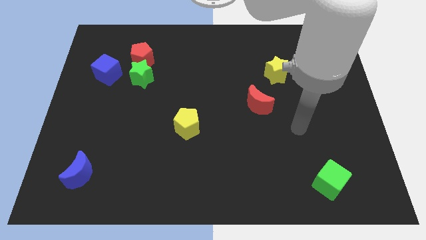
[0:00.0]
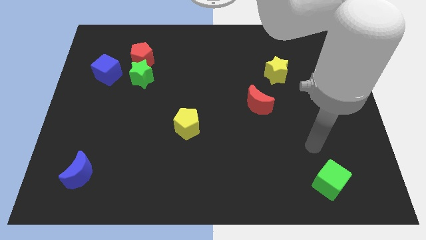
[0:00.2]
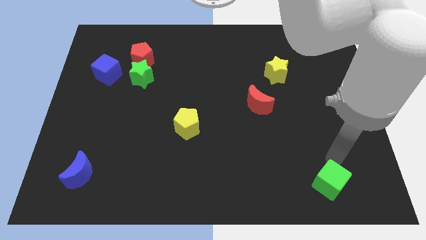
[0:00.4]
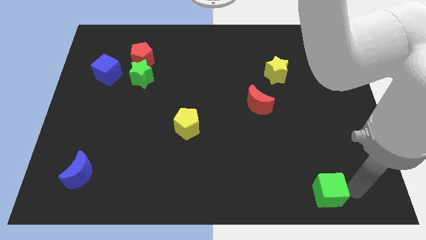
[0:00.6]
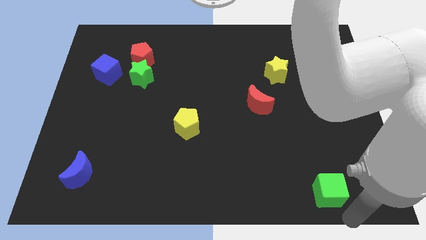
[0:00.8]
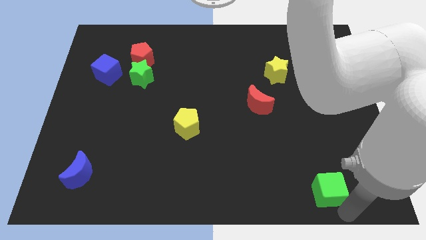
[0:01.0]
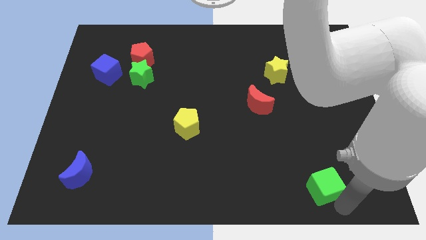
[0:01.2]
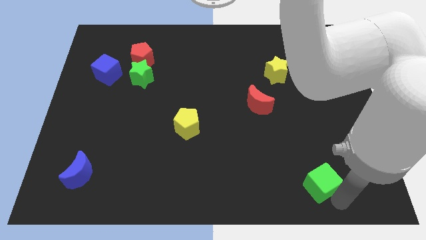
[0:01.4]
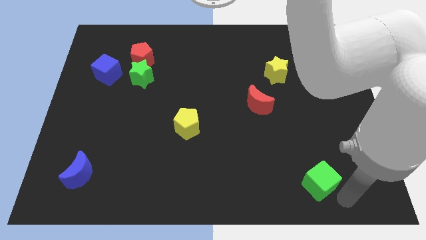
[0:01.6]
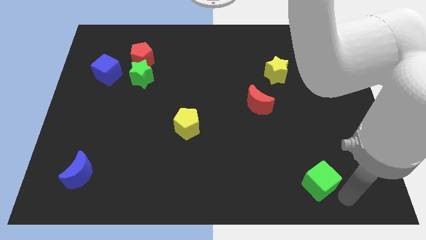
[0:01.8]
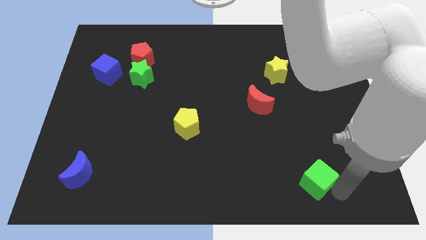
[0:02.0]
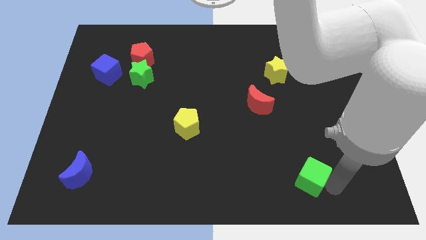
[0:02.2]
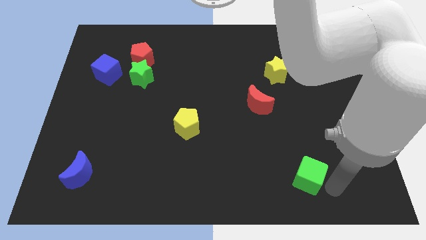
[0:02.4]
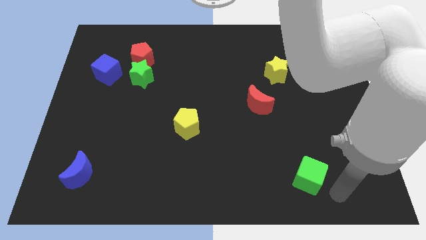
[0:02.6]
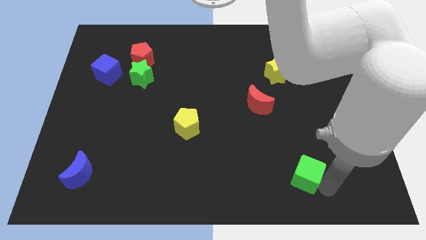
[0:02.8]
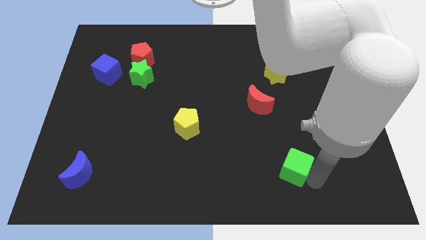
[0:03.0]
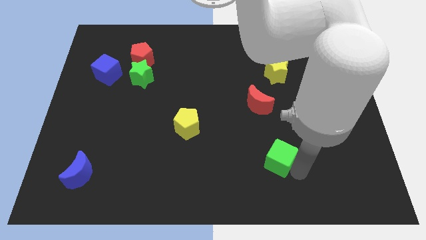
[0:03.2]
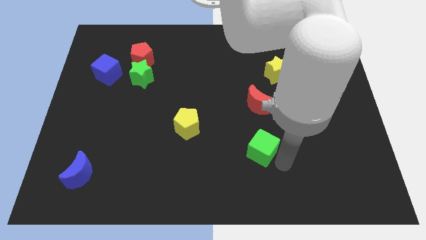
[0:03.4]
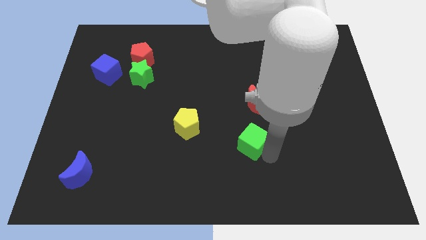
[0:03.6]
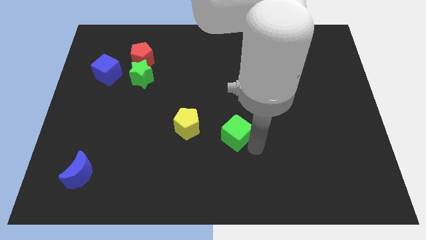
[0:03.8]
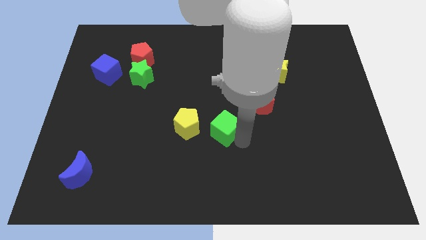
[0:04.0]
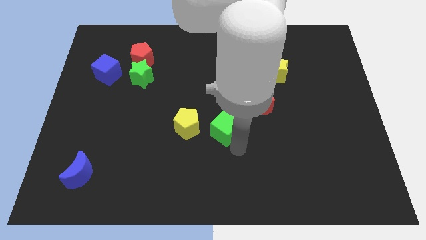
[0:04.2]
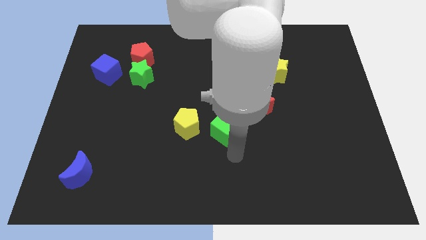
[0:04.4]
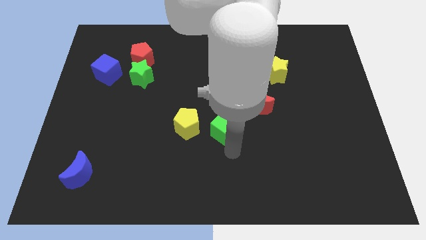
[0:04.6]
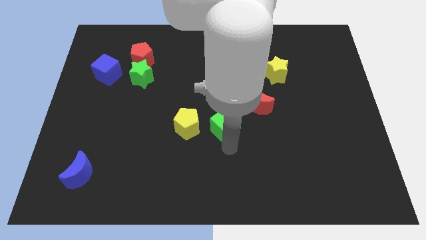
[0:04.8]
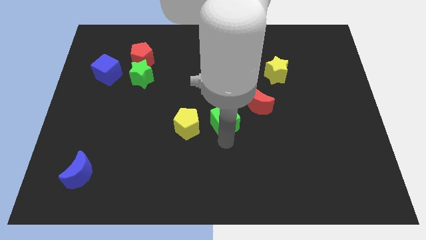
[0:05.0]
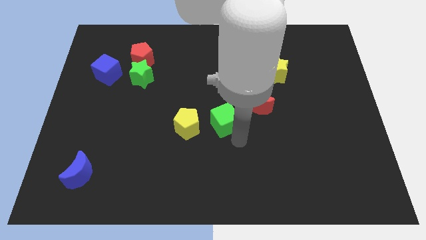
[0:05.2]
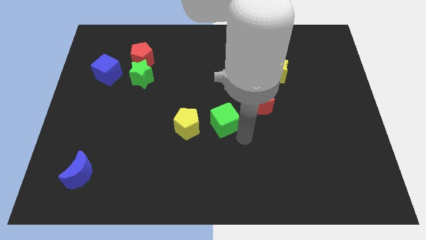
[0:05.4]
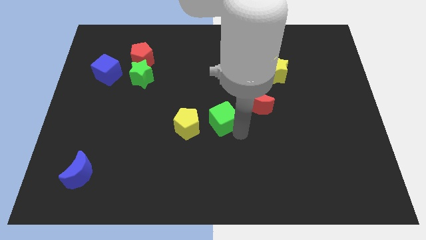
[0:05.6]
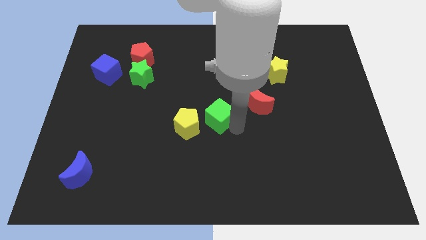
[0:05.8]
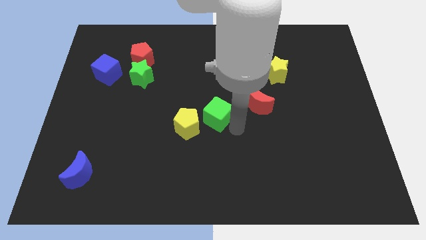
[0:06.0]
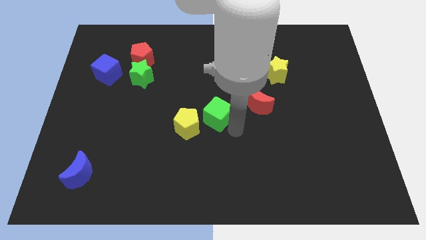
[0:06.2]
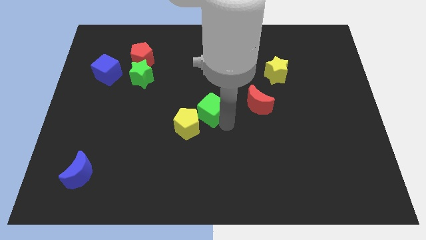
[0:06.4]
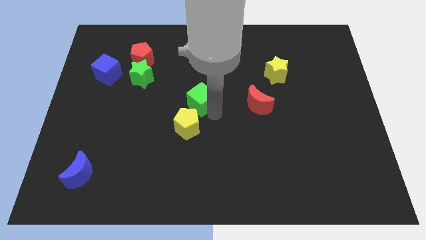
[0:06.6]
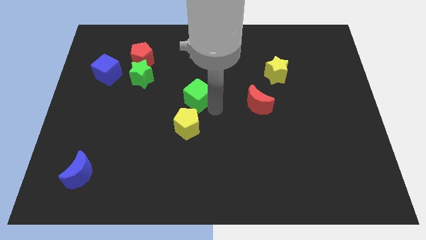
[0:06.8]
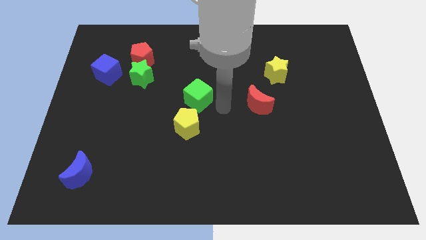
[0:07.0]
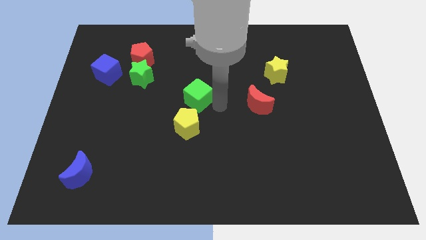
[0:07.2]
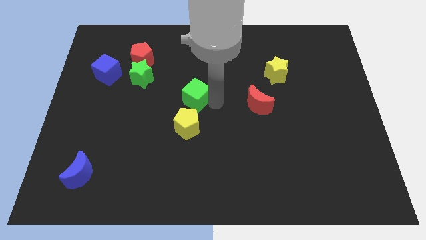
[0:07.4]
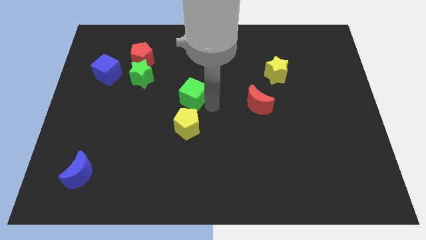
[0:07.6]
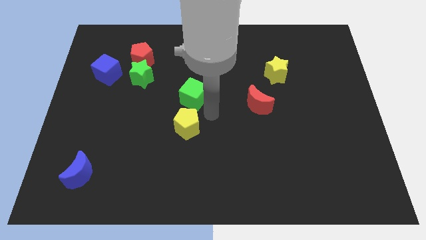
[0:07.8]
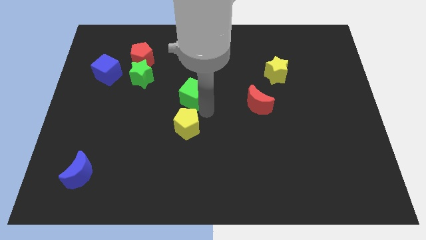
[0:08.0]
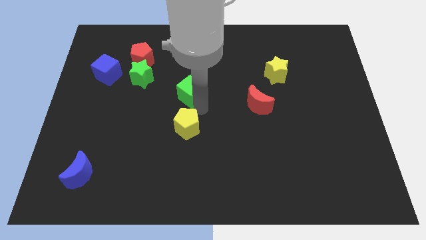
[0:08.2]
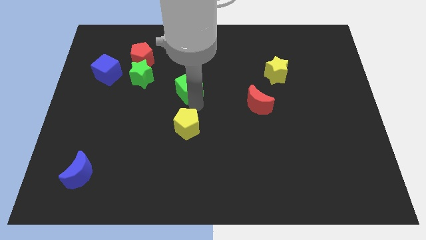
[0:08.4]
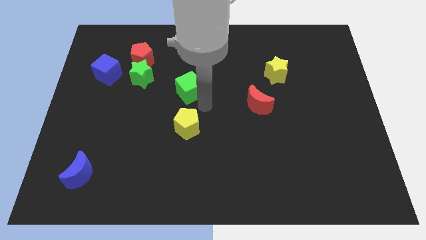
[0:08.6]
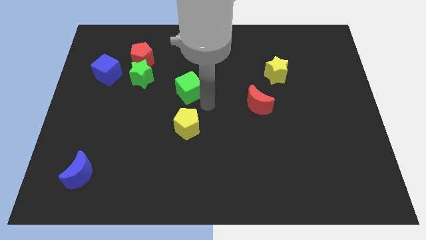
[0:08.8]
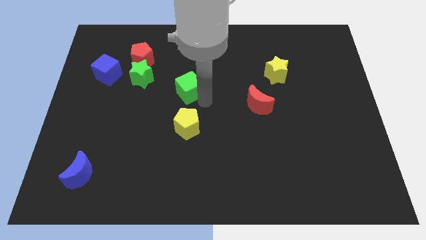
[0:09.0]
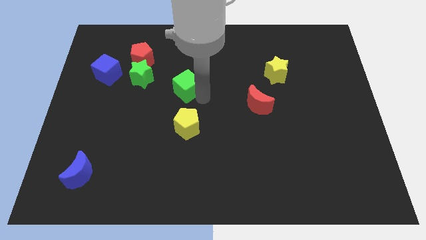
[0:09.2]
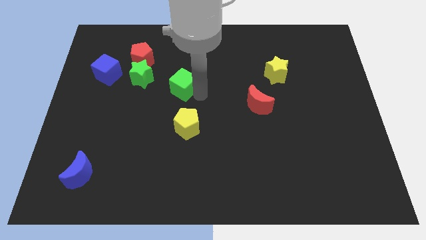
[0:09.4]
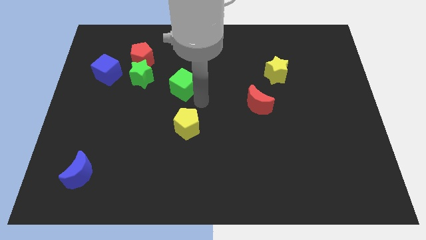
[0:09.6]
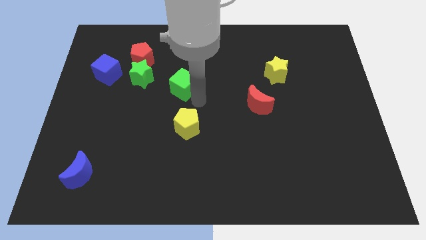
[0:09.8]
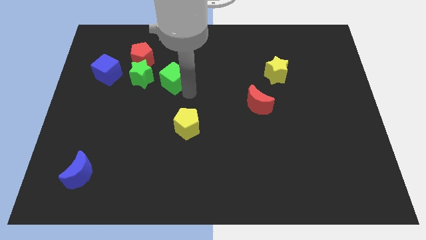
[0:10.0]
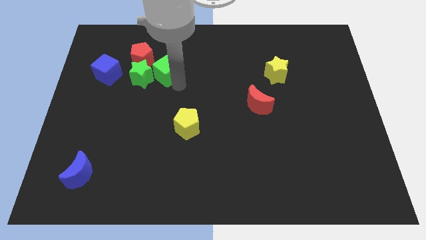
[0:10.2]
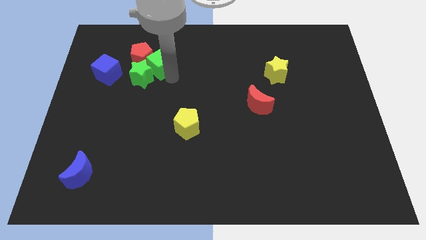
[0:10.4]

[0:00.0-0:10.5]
push the green cube next to the red pentagon

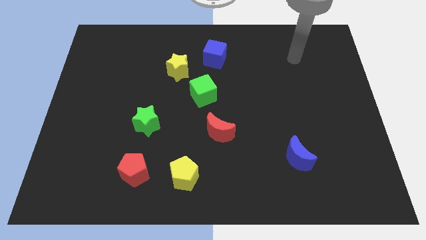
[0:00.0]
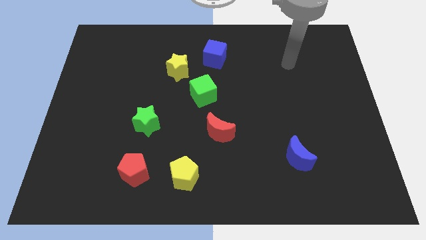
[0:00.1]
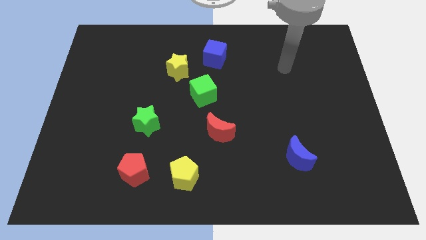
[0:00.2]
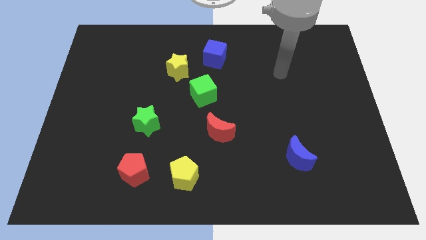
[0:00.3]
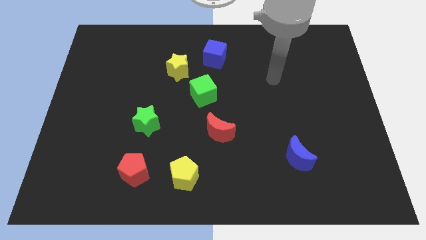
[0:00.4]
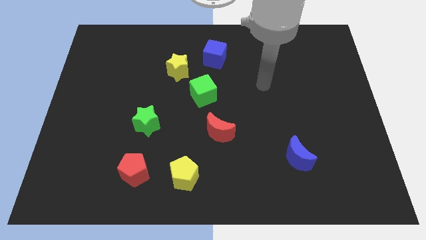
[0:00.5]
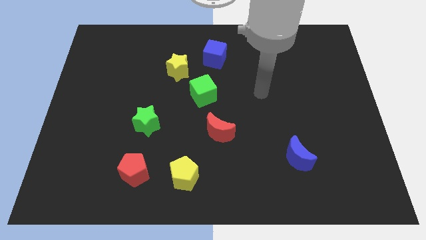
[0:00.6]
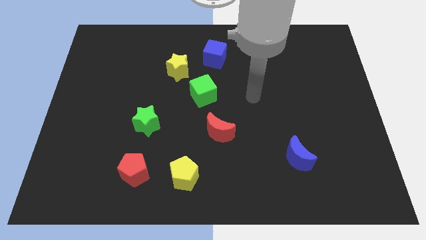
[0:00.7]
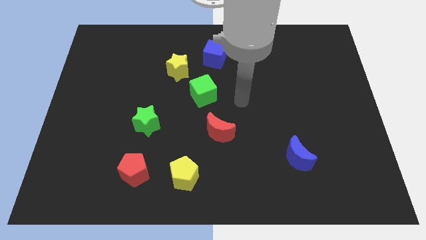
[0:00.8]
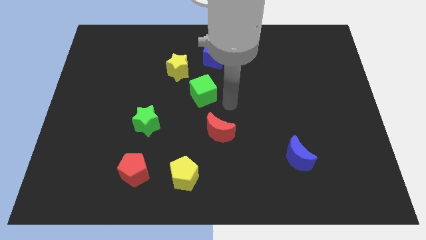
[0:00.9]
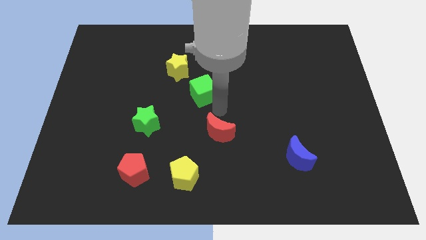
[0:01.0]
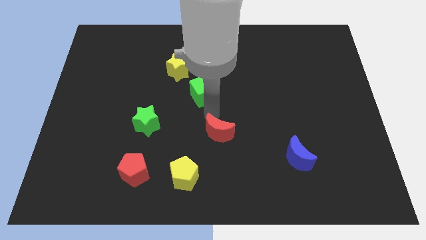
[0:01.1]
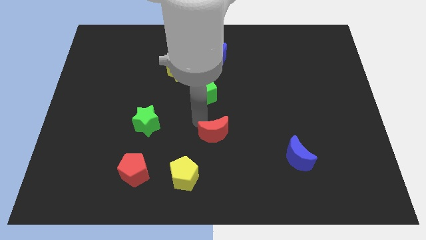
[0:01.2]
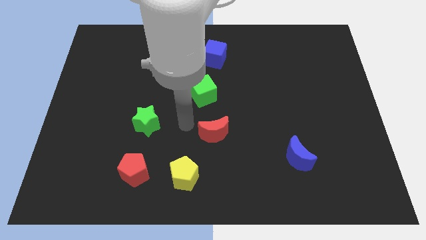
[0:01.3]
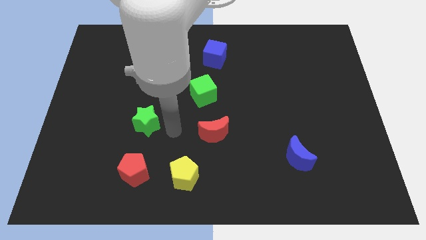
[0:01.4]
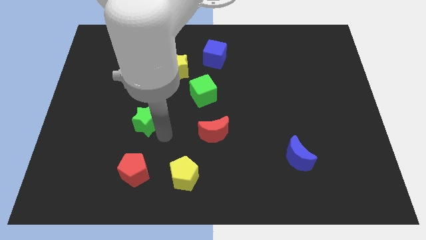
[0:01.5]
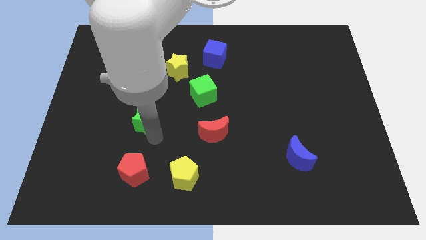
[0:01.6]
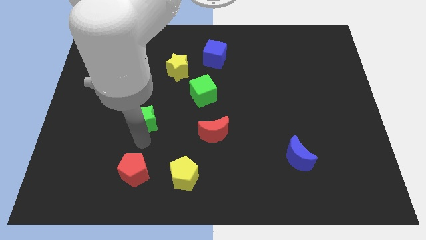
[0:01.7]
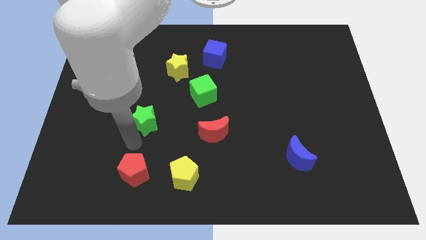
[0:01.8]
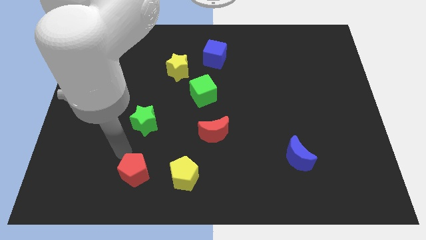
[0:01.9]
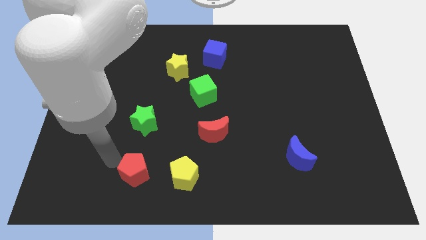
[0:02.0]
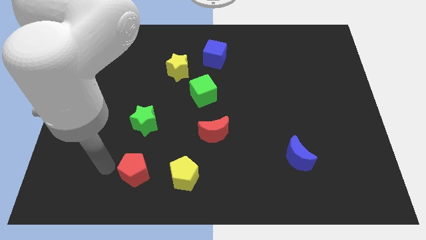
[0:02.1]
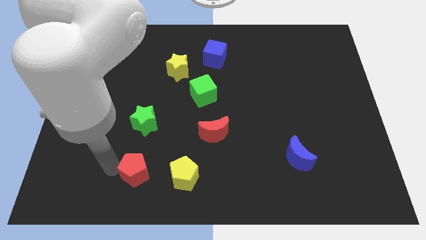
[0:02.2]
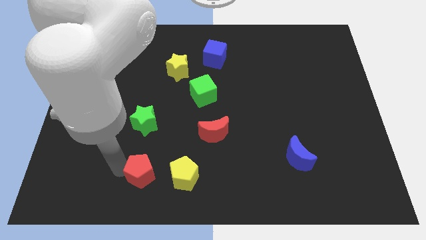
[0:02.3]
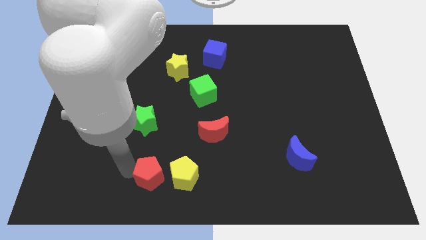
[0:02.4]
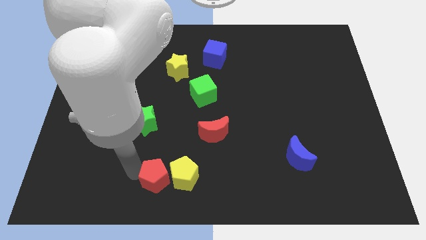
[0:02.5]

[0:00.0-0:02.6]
slide the red pentagon towards the yellow pentagon
